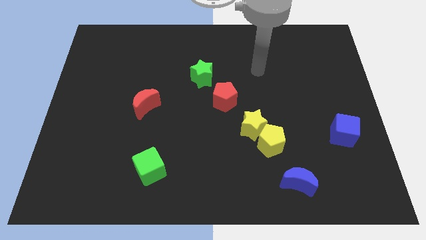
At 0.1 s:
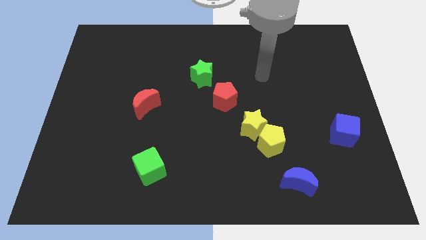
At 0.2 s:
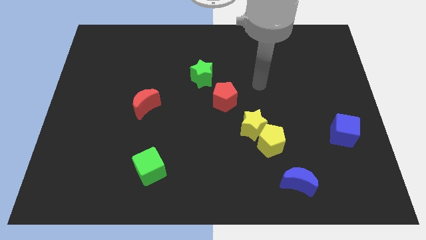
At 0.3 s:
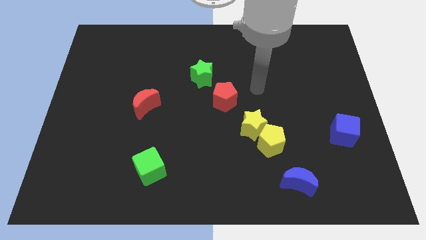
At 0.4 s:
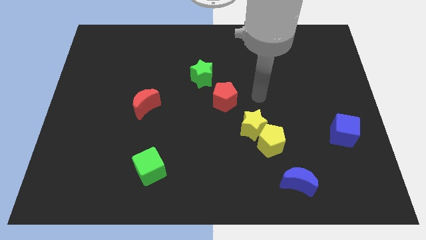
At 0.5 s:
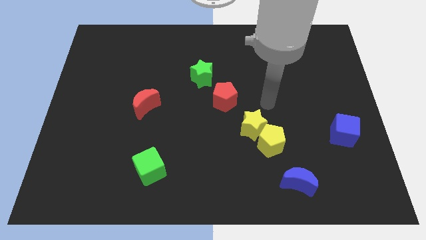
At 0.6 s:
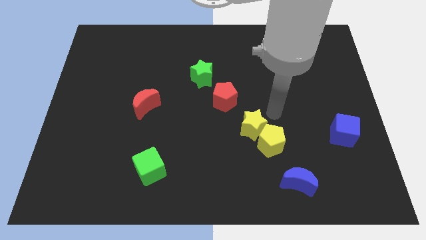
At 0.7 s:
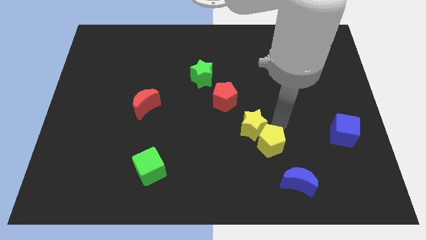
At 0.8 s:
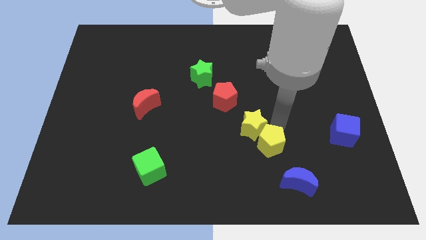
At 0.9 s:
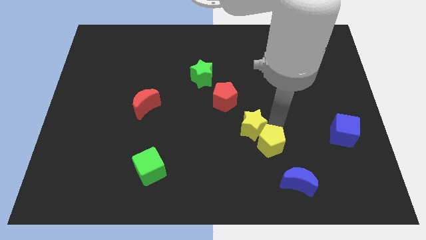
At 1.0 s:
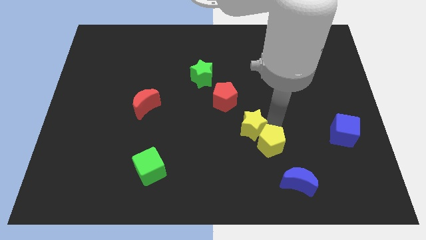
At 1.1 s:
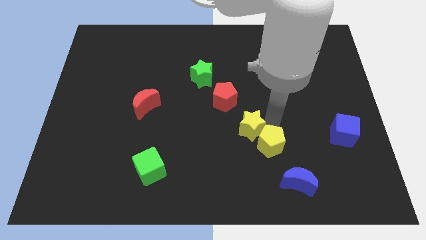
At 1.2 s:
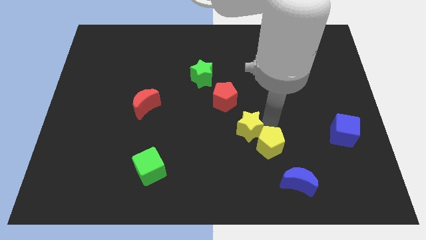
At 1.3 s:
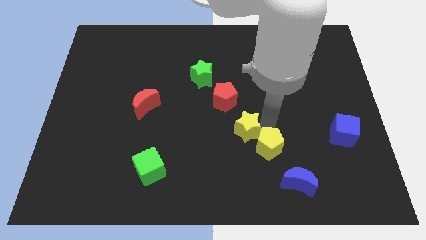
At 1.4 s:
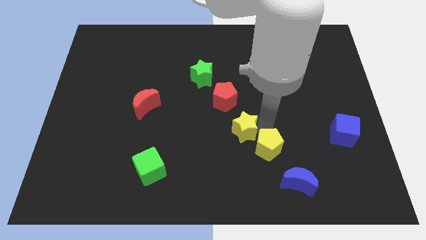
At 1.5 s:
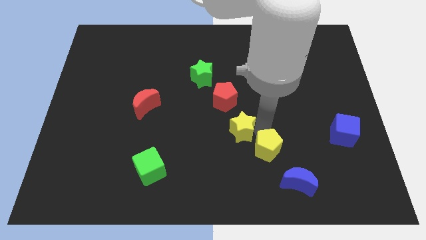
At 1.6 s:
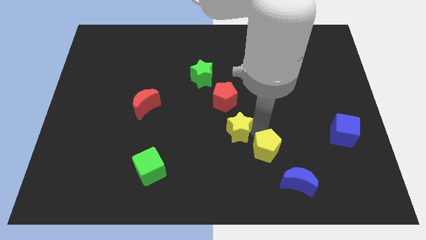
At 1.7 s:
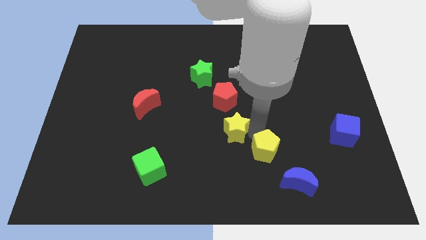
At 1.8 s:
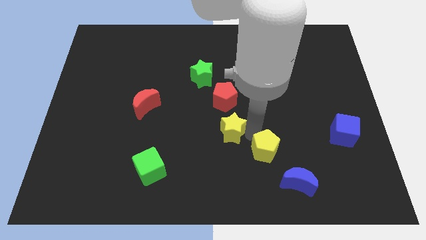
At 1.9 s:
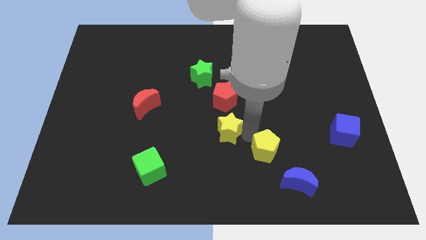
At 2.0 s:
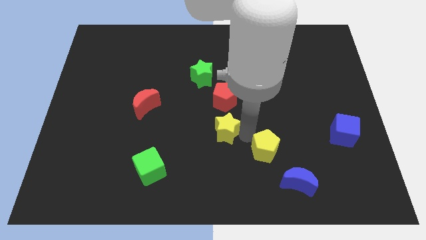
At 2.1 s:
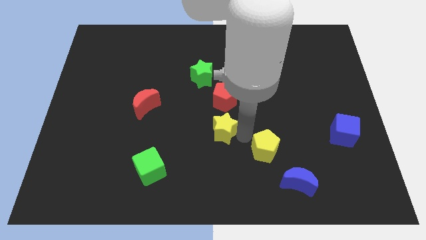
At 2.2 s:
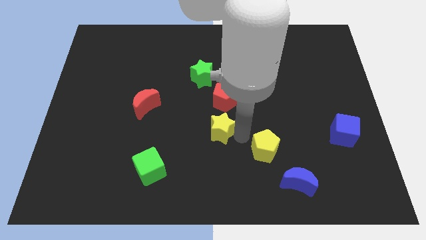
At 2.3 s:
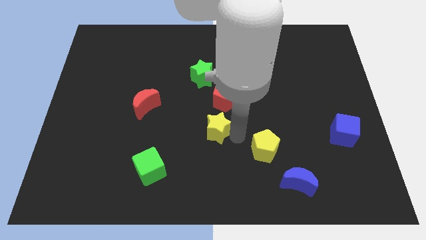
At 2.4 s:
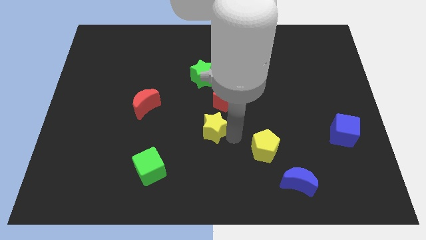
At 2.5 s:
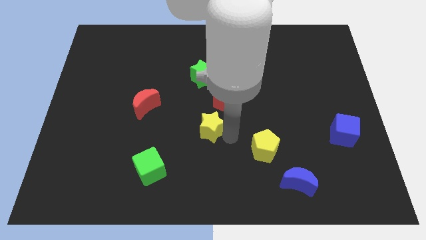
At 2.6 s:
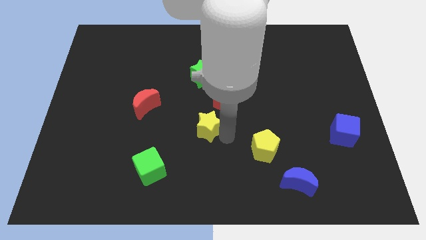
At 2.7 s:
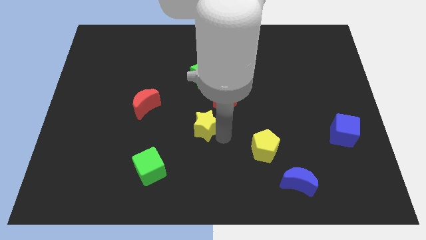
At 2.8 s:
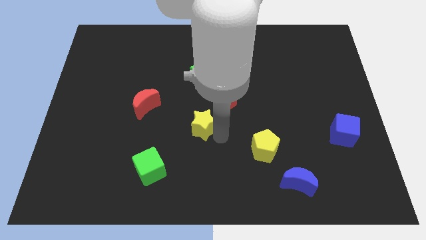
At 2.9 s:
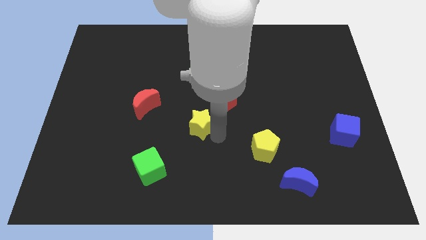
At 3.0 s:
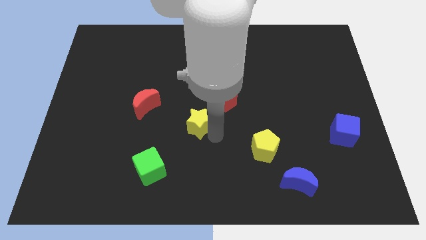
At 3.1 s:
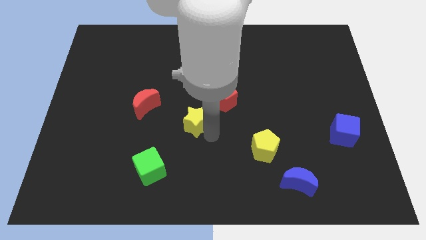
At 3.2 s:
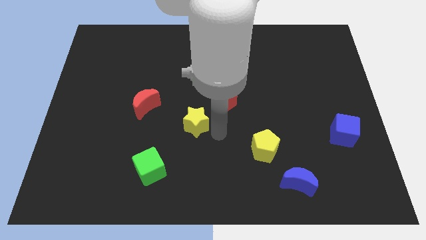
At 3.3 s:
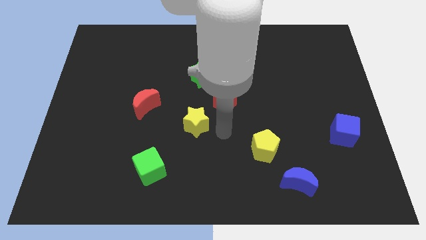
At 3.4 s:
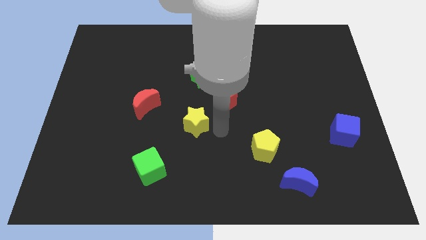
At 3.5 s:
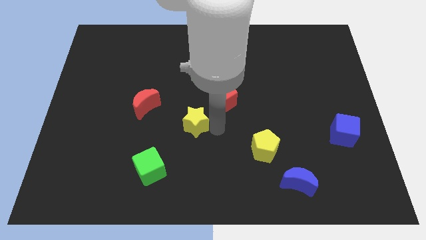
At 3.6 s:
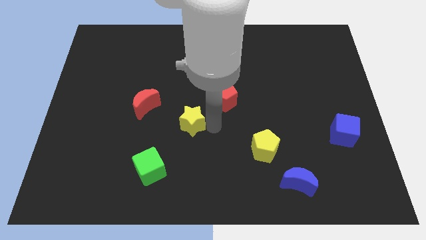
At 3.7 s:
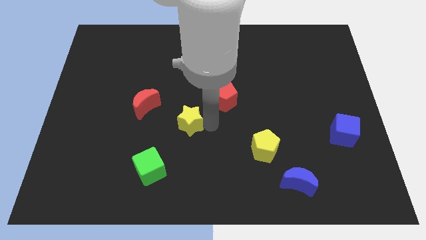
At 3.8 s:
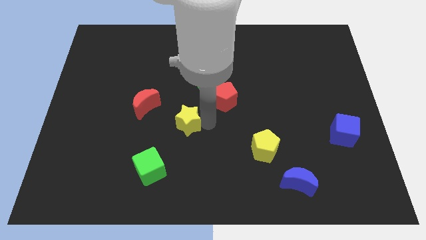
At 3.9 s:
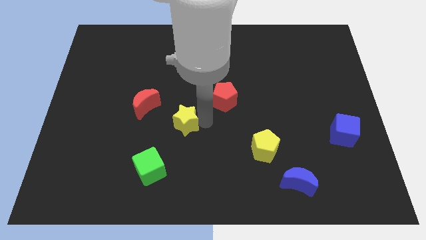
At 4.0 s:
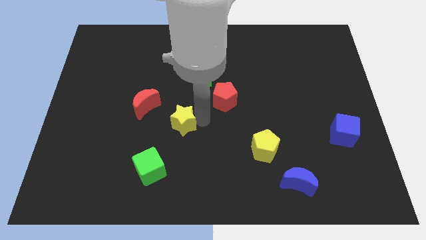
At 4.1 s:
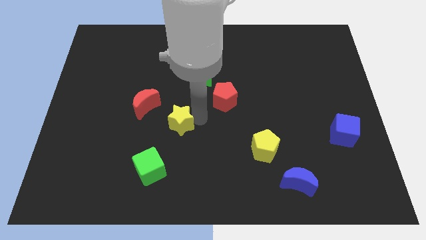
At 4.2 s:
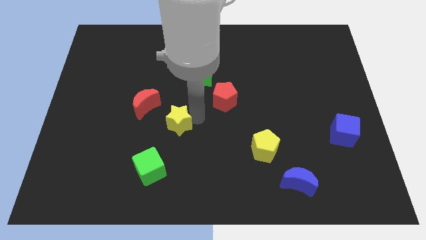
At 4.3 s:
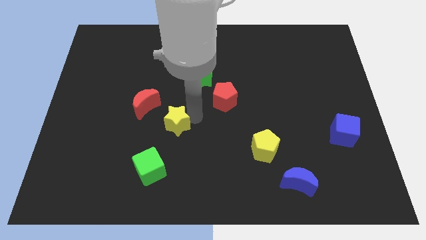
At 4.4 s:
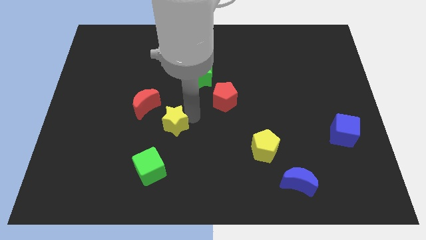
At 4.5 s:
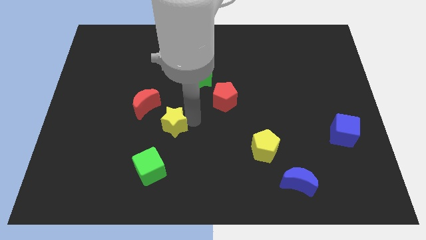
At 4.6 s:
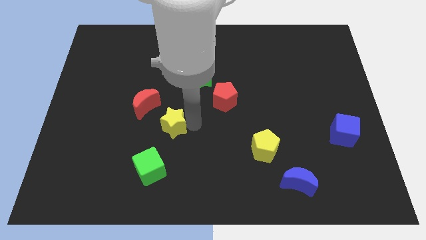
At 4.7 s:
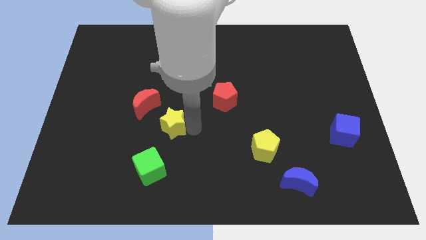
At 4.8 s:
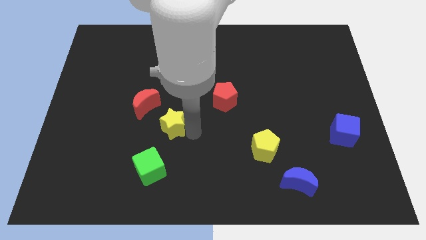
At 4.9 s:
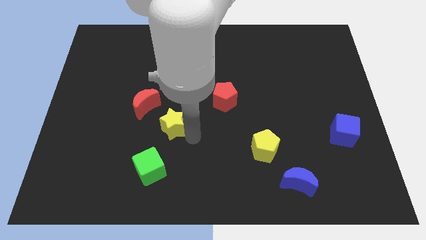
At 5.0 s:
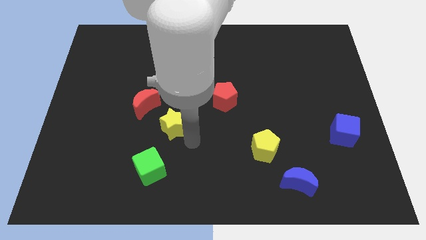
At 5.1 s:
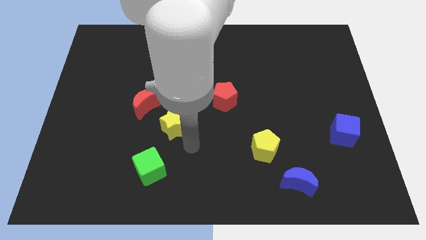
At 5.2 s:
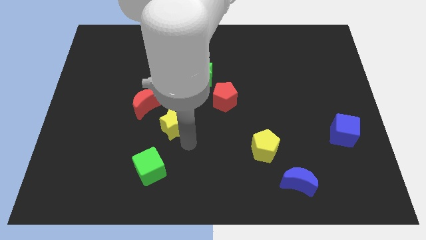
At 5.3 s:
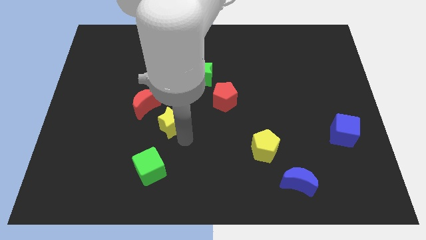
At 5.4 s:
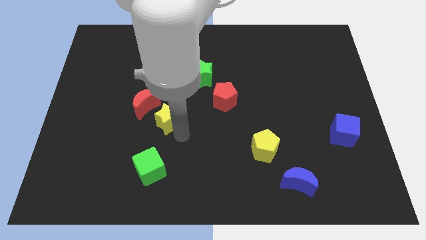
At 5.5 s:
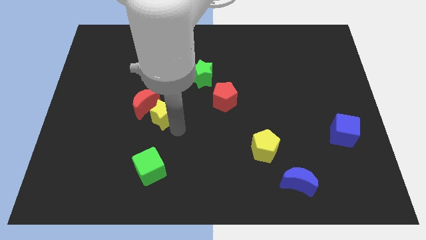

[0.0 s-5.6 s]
put the yellow star towards the red moon

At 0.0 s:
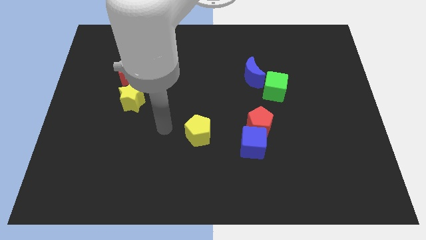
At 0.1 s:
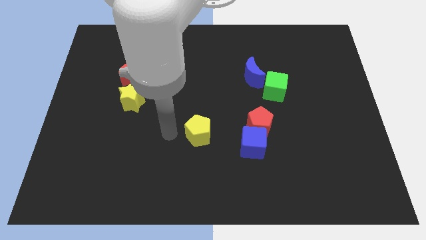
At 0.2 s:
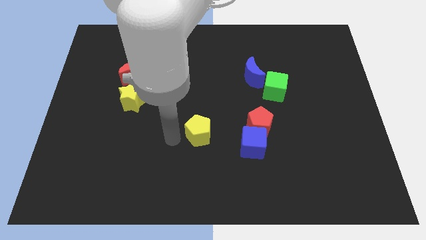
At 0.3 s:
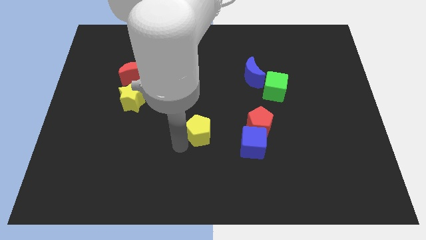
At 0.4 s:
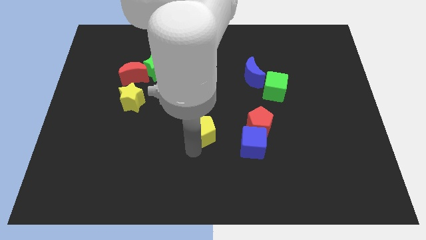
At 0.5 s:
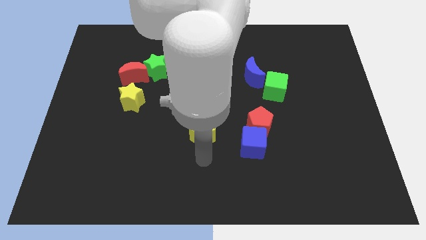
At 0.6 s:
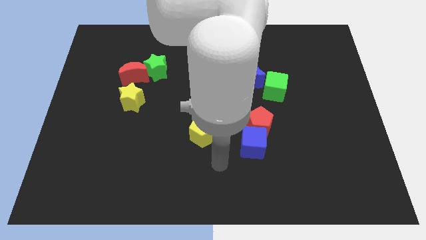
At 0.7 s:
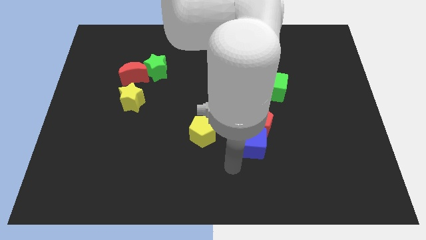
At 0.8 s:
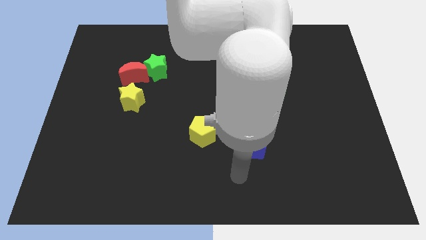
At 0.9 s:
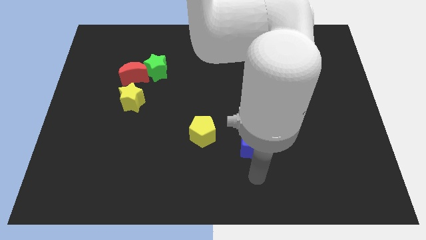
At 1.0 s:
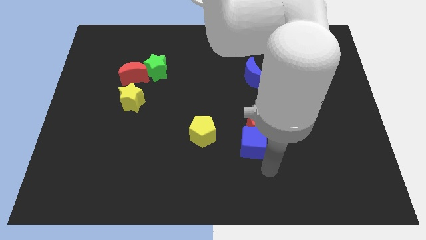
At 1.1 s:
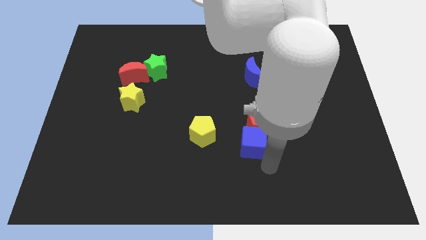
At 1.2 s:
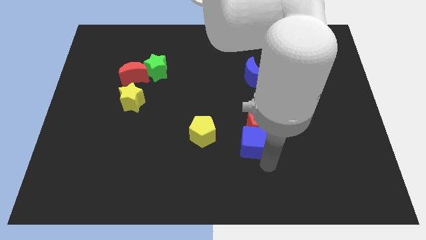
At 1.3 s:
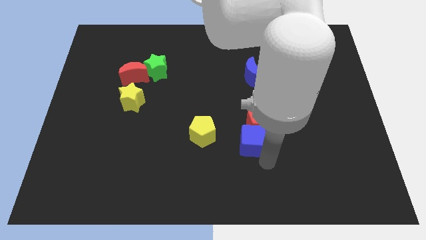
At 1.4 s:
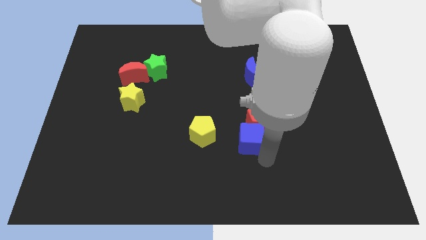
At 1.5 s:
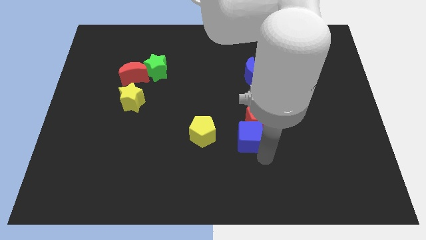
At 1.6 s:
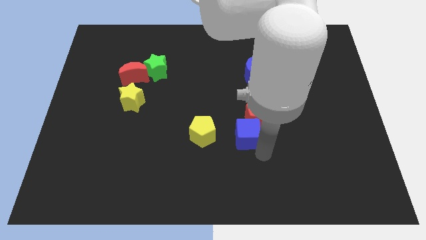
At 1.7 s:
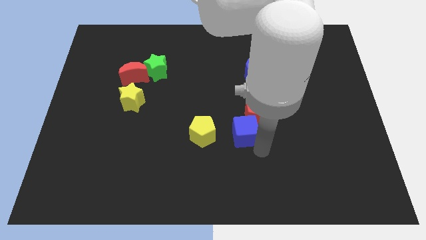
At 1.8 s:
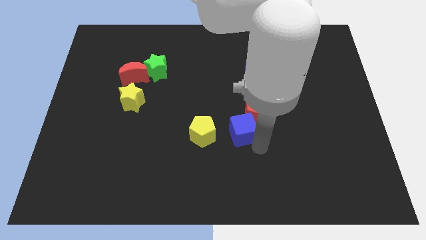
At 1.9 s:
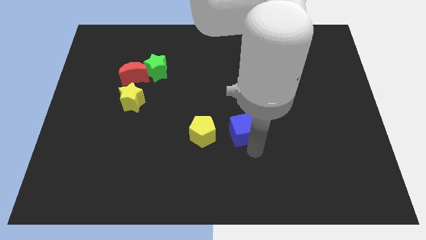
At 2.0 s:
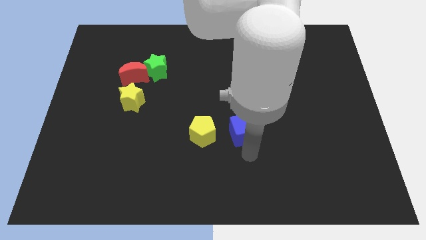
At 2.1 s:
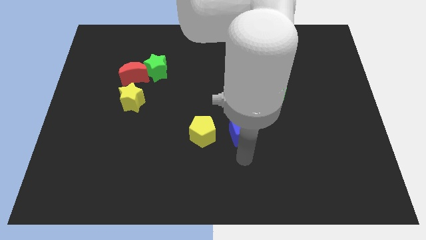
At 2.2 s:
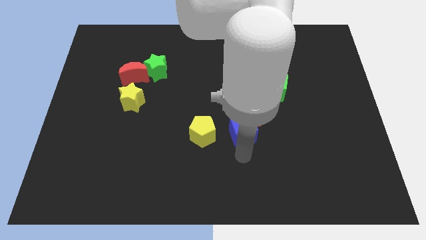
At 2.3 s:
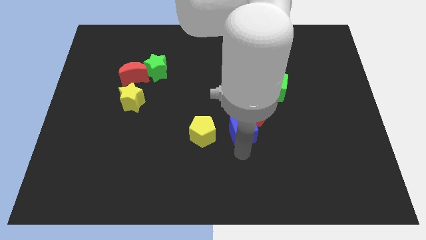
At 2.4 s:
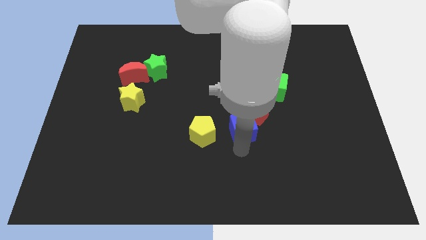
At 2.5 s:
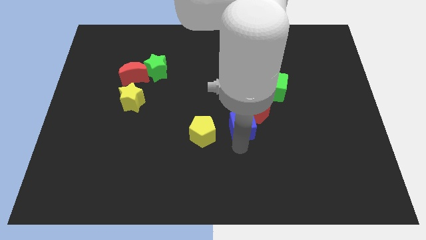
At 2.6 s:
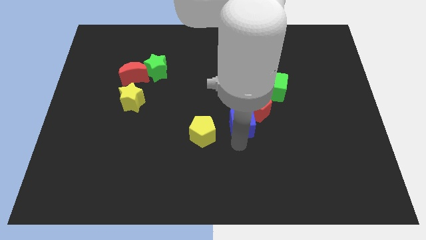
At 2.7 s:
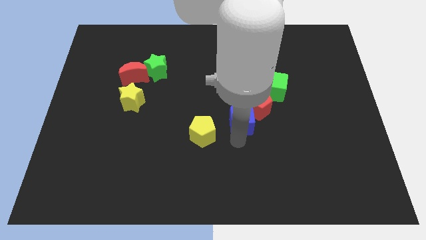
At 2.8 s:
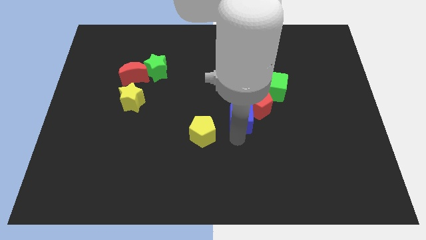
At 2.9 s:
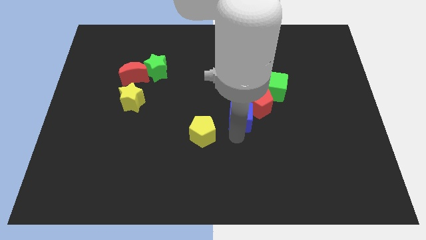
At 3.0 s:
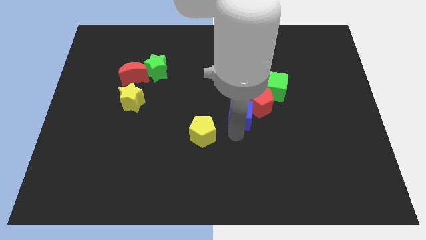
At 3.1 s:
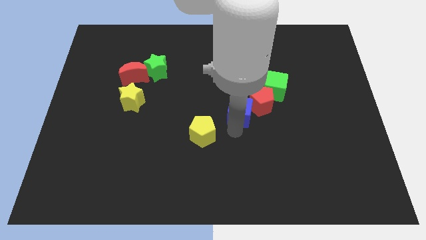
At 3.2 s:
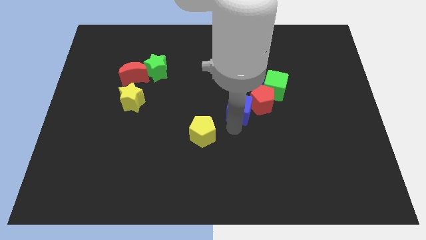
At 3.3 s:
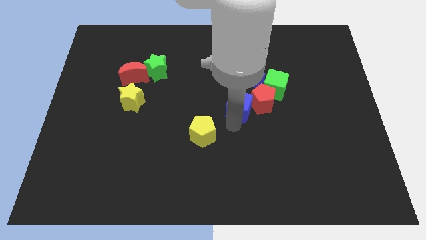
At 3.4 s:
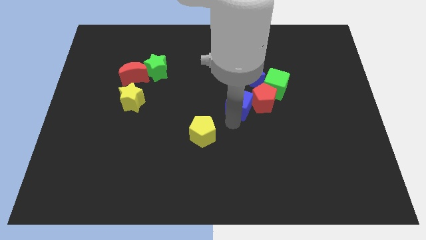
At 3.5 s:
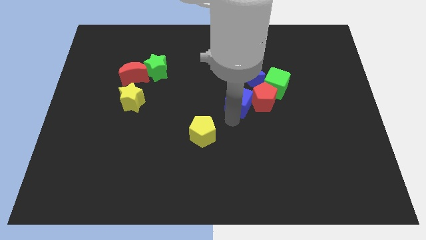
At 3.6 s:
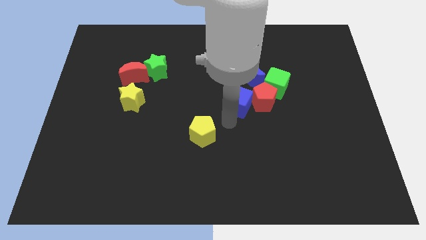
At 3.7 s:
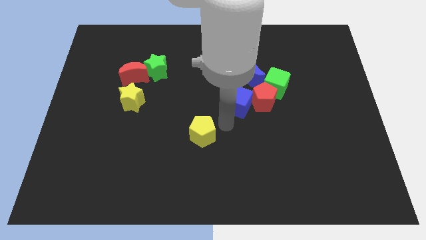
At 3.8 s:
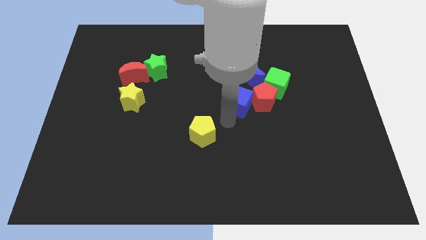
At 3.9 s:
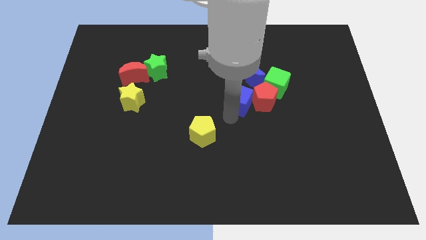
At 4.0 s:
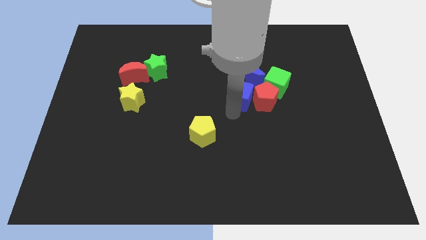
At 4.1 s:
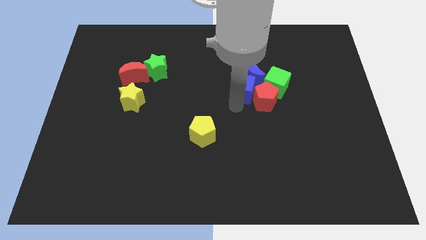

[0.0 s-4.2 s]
put the blue cube next to the blue moon
